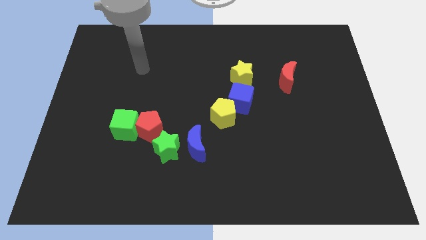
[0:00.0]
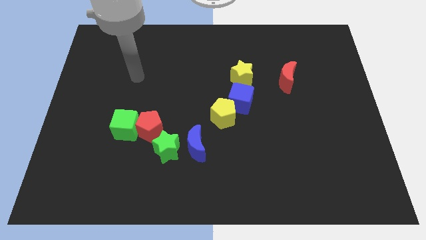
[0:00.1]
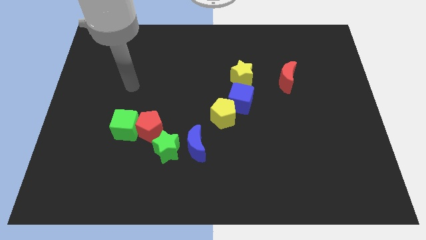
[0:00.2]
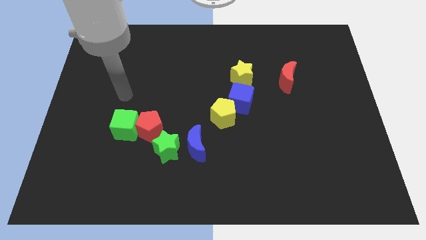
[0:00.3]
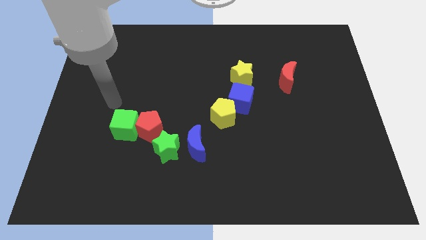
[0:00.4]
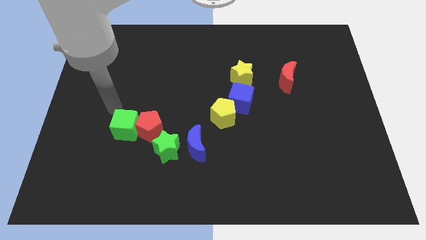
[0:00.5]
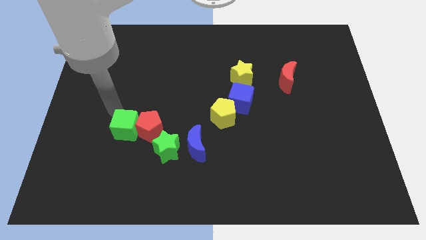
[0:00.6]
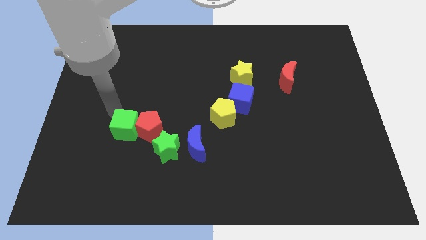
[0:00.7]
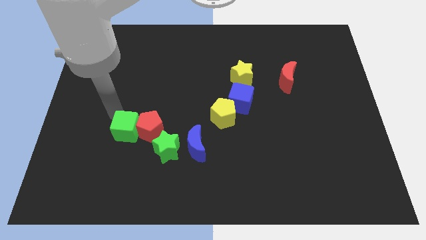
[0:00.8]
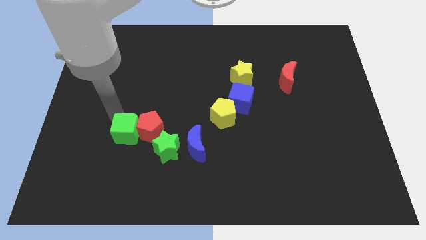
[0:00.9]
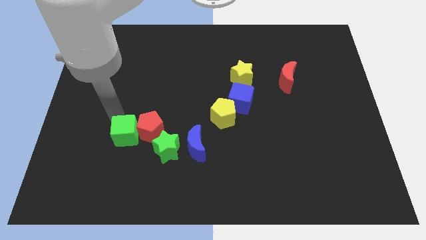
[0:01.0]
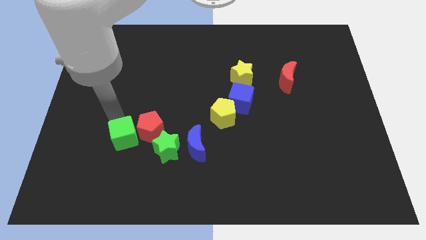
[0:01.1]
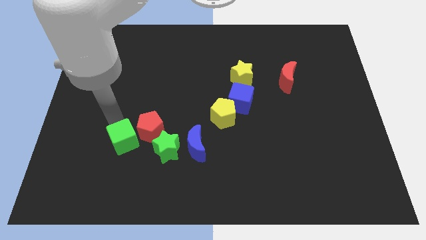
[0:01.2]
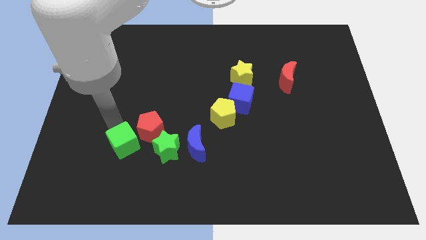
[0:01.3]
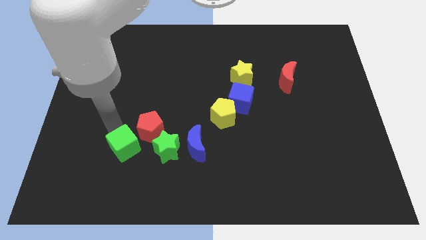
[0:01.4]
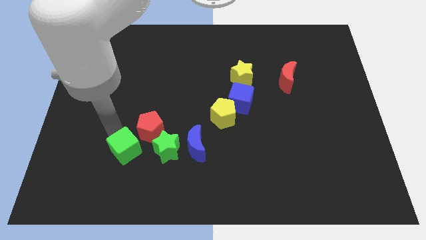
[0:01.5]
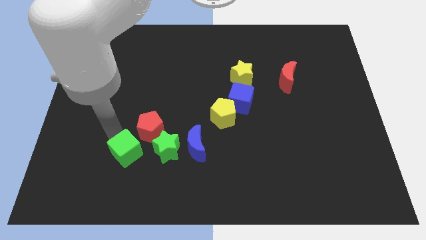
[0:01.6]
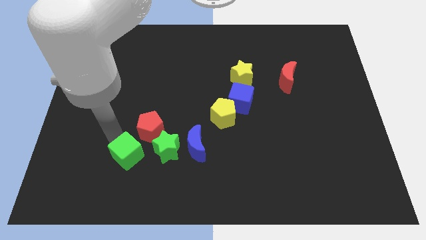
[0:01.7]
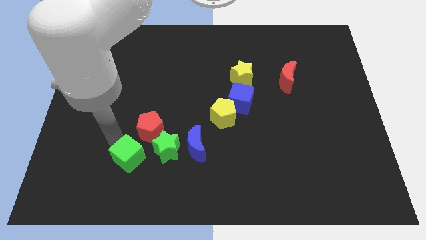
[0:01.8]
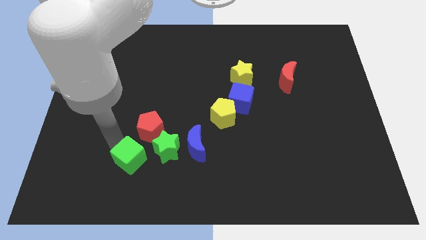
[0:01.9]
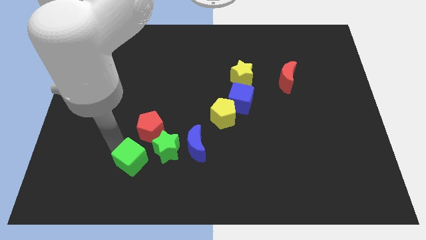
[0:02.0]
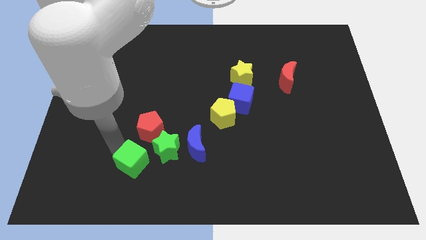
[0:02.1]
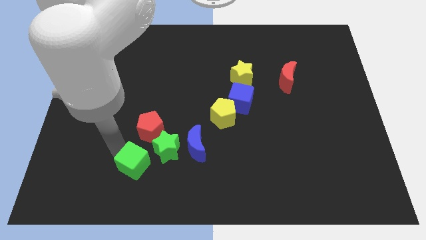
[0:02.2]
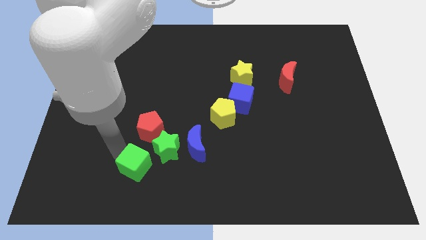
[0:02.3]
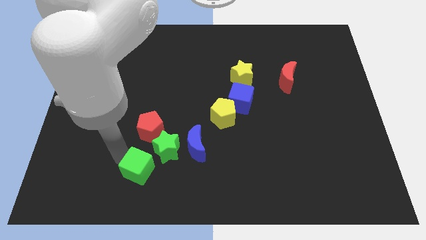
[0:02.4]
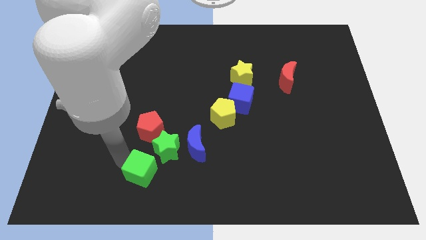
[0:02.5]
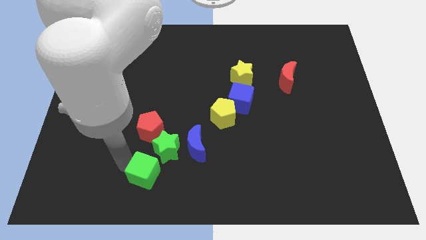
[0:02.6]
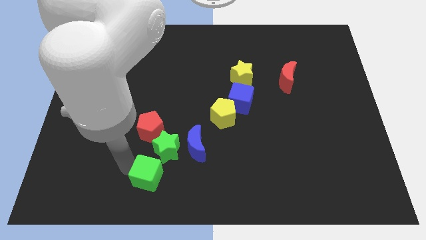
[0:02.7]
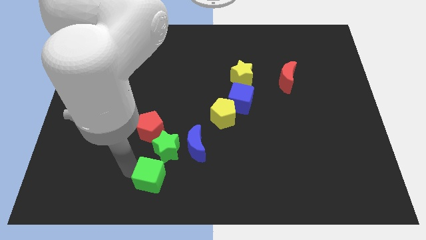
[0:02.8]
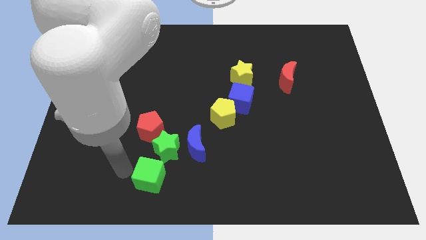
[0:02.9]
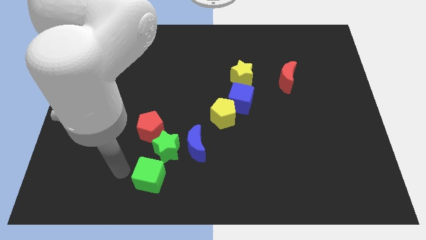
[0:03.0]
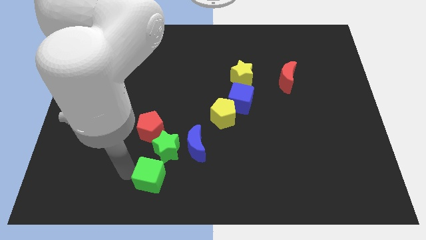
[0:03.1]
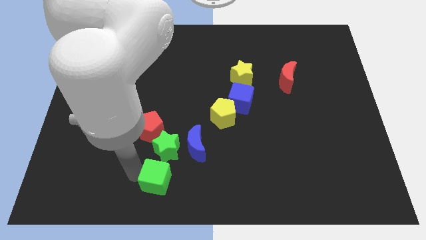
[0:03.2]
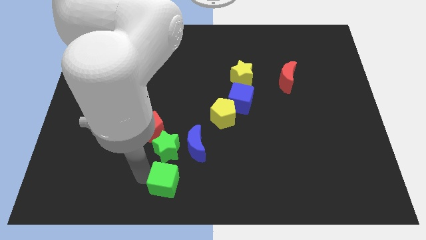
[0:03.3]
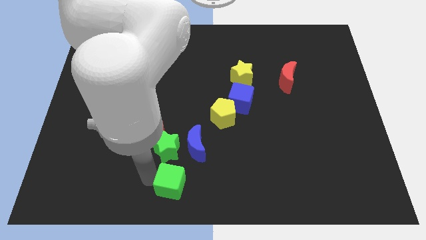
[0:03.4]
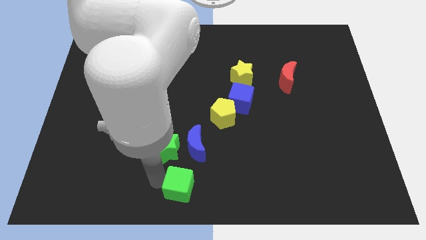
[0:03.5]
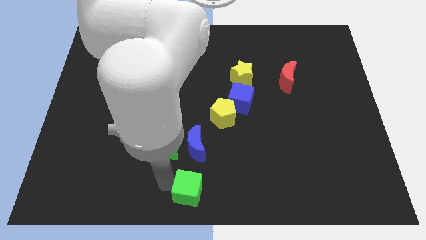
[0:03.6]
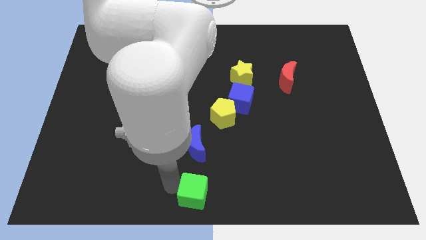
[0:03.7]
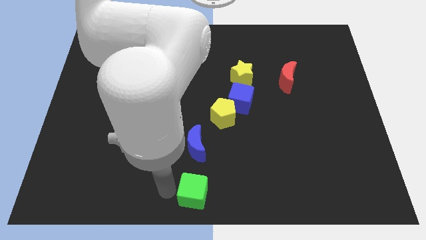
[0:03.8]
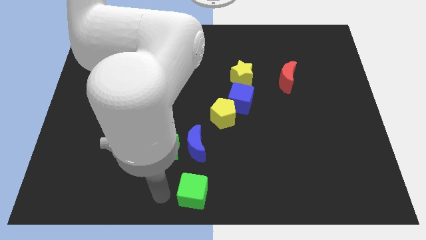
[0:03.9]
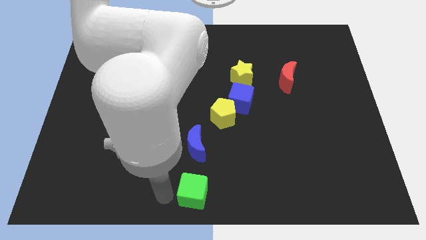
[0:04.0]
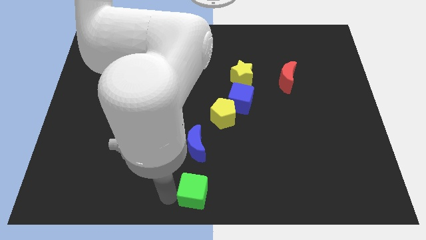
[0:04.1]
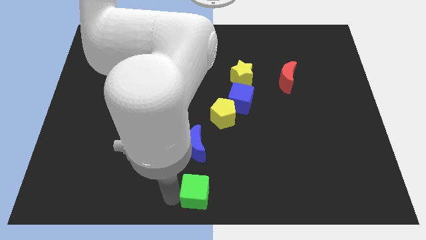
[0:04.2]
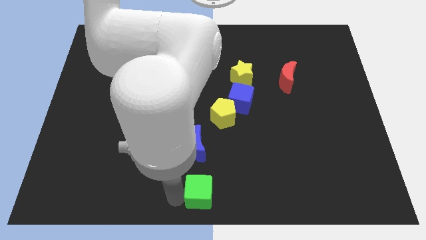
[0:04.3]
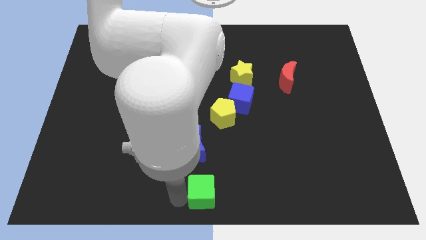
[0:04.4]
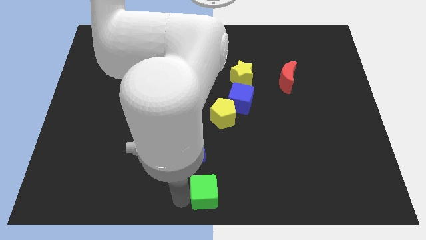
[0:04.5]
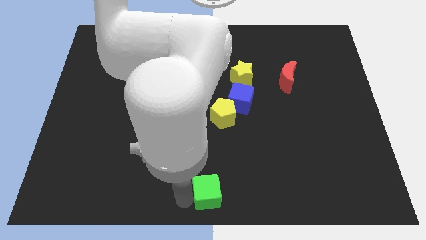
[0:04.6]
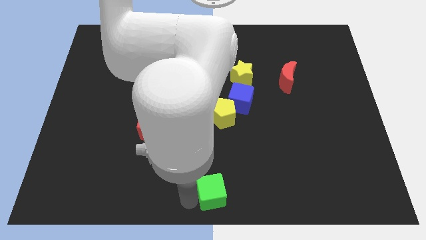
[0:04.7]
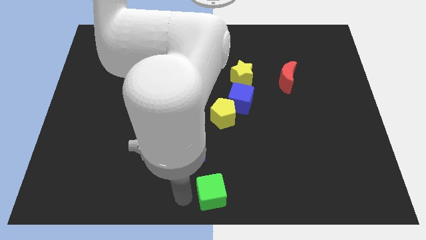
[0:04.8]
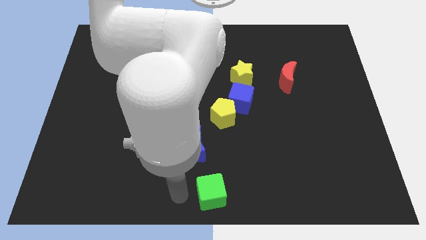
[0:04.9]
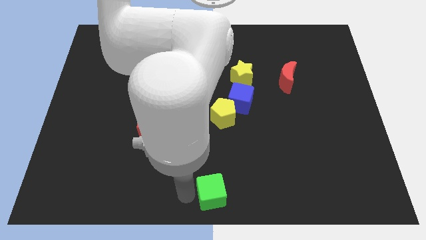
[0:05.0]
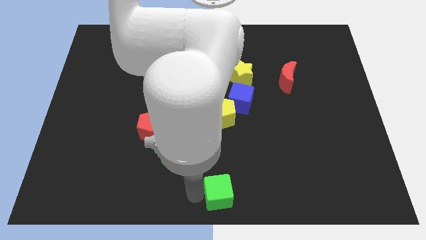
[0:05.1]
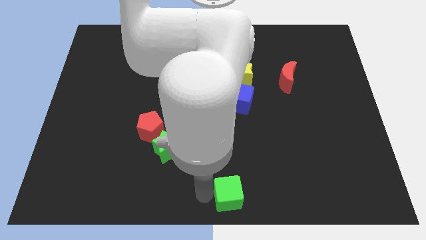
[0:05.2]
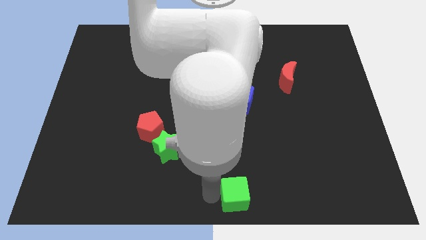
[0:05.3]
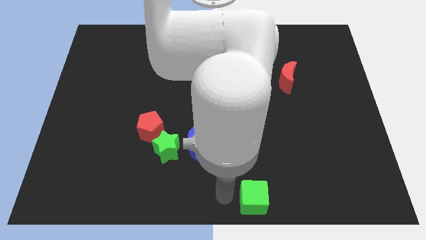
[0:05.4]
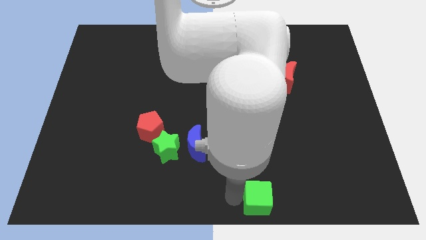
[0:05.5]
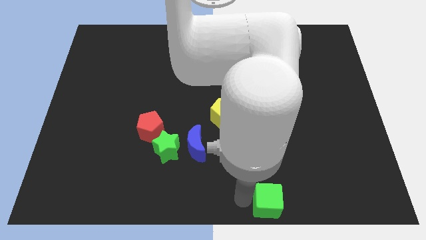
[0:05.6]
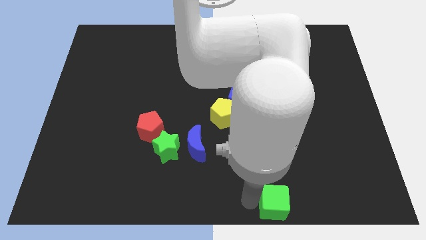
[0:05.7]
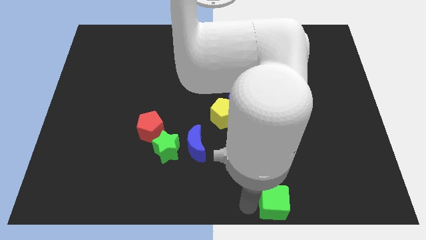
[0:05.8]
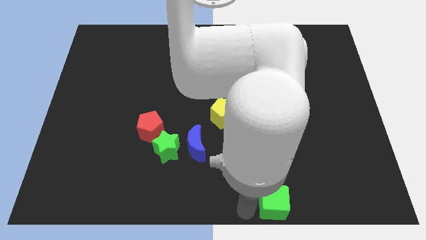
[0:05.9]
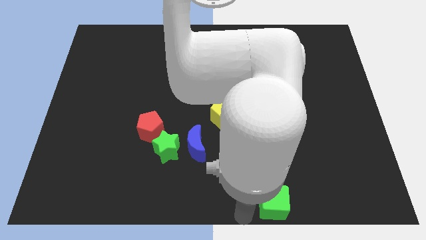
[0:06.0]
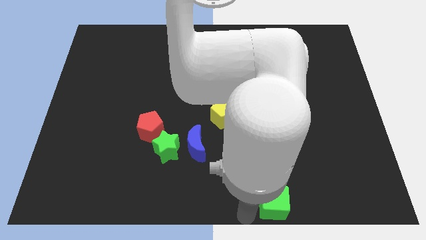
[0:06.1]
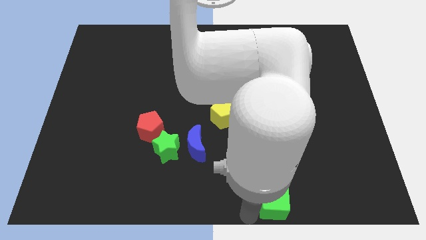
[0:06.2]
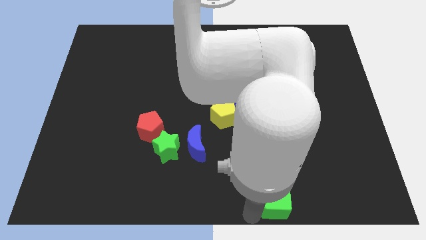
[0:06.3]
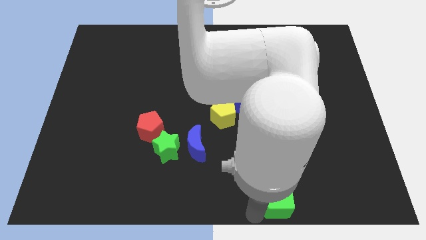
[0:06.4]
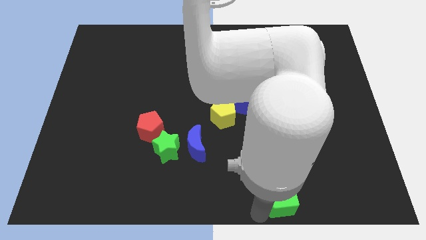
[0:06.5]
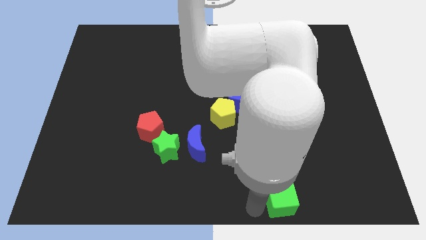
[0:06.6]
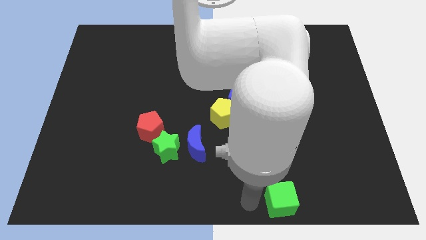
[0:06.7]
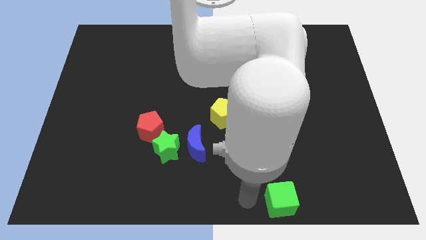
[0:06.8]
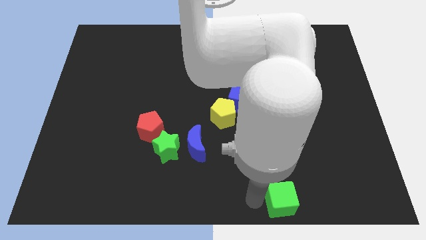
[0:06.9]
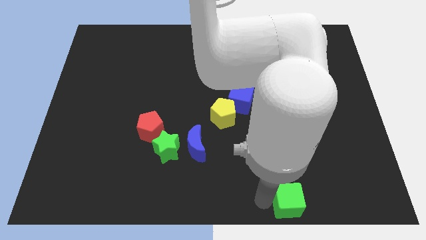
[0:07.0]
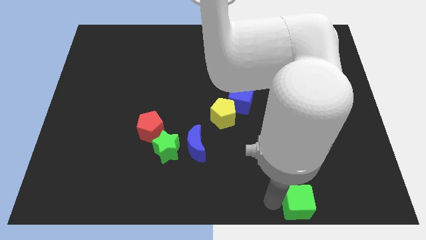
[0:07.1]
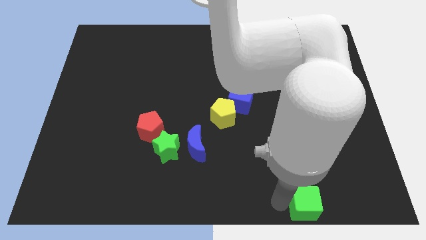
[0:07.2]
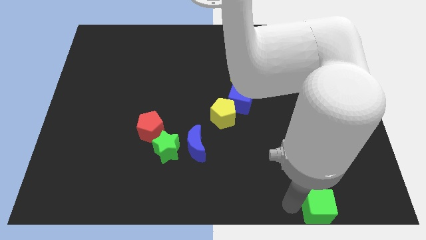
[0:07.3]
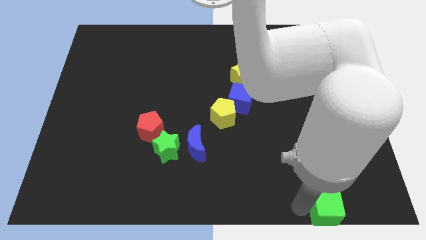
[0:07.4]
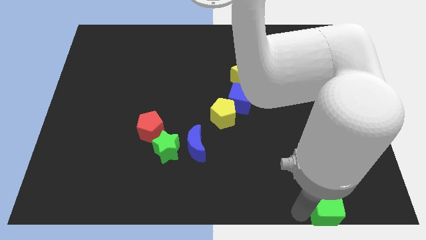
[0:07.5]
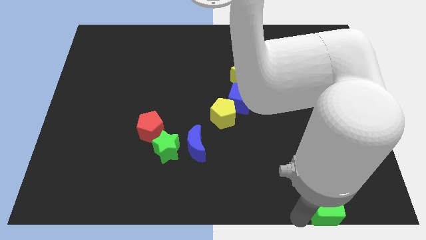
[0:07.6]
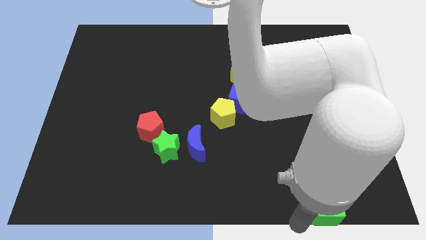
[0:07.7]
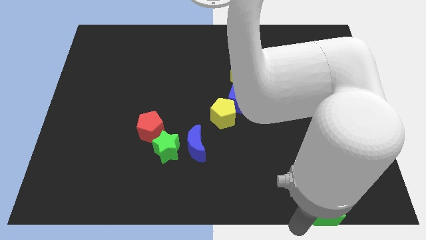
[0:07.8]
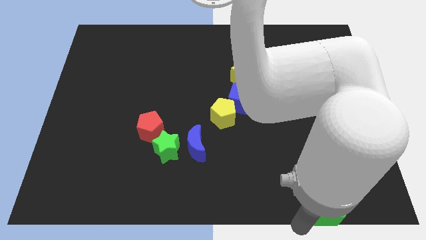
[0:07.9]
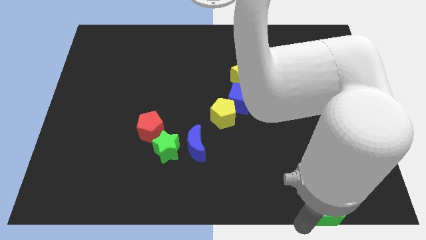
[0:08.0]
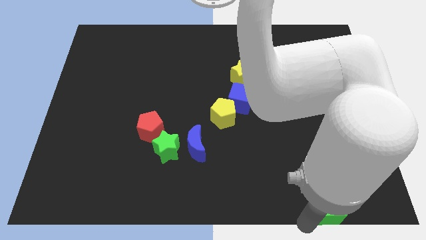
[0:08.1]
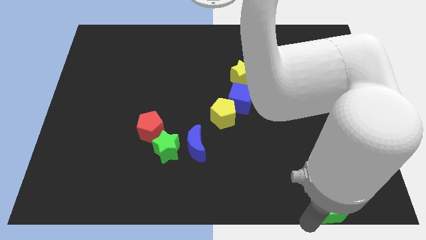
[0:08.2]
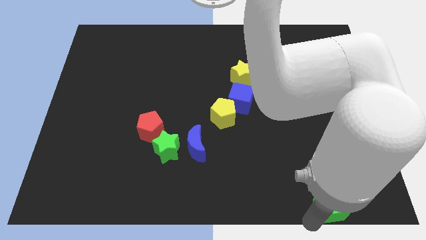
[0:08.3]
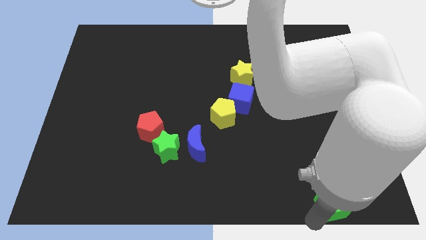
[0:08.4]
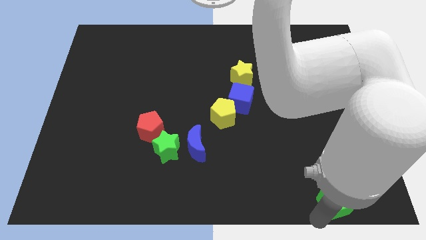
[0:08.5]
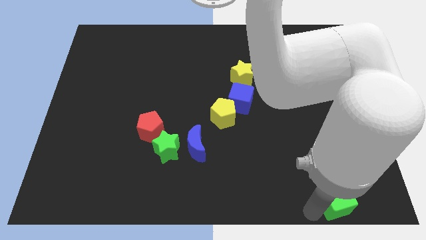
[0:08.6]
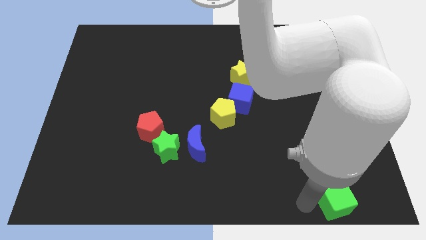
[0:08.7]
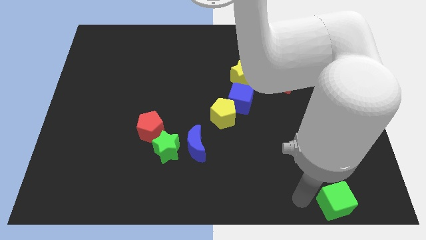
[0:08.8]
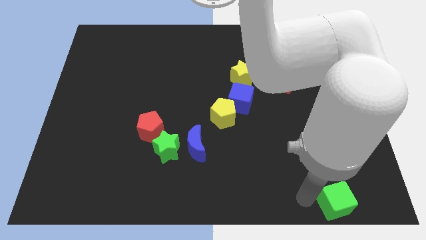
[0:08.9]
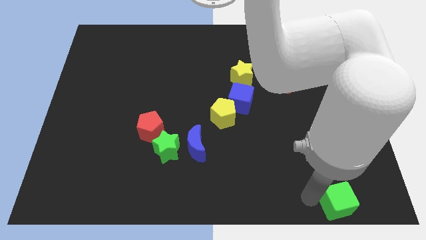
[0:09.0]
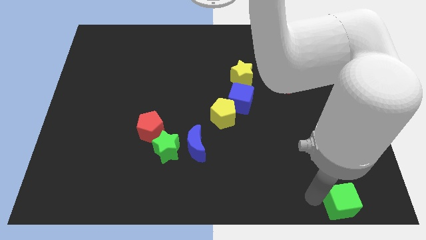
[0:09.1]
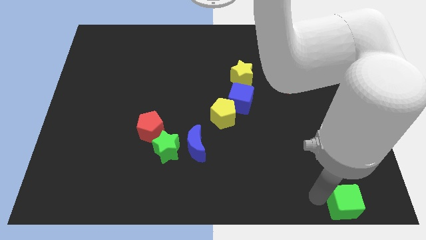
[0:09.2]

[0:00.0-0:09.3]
move the green cube to the bottom right
